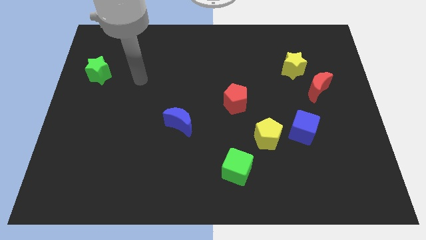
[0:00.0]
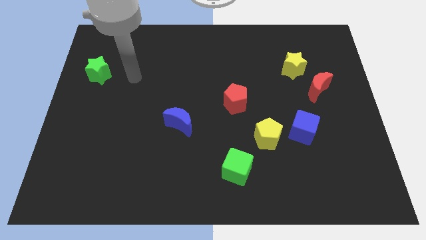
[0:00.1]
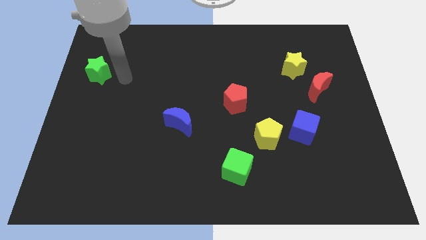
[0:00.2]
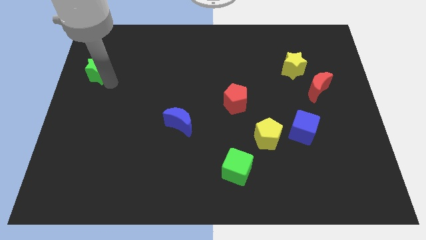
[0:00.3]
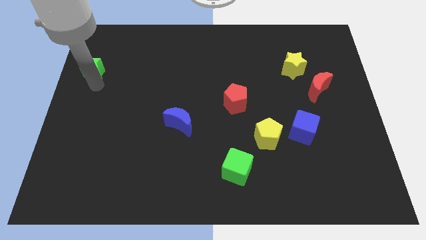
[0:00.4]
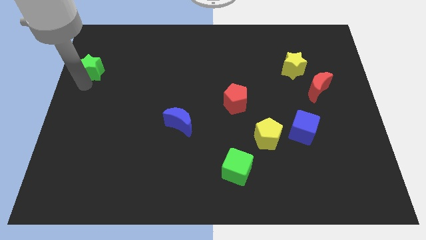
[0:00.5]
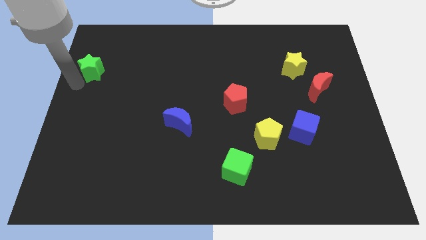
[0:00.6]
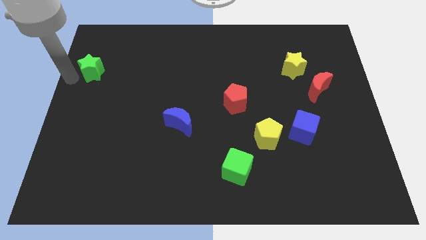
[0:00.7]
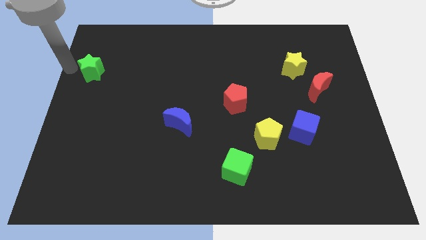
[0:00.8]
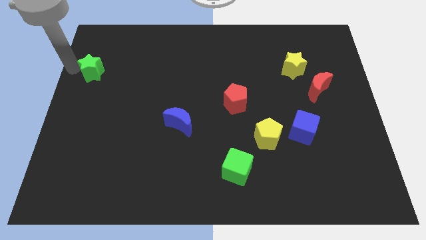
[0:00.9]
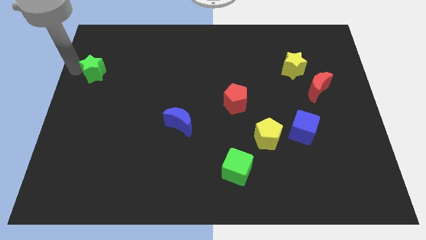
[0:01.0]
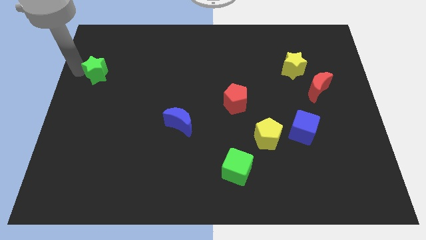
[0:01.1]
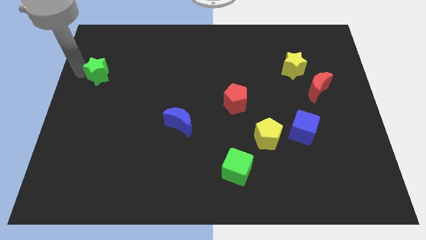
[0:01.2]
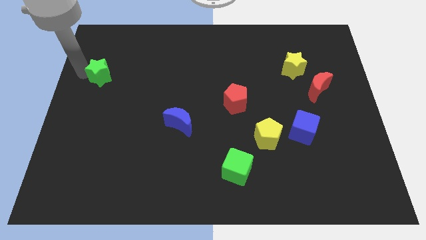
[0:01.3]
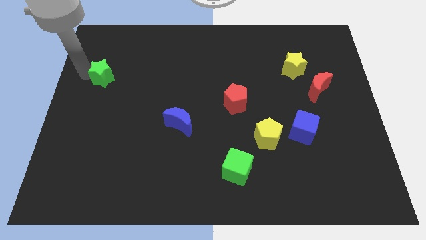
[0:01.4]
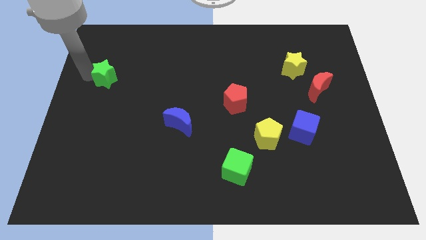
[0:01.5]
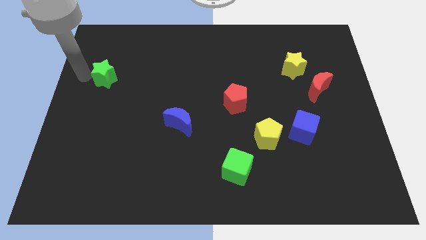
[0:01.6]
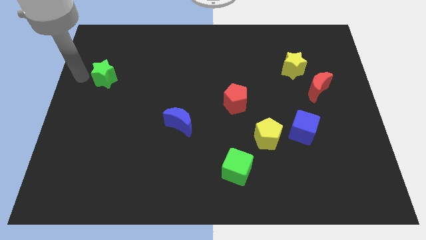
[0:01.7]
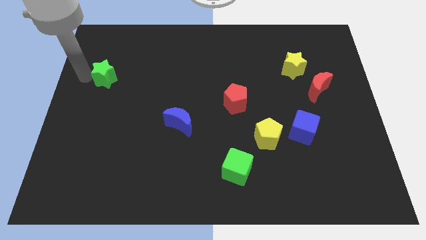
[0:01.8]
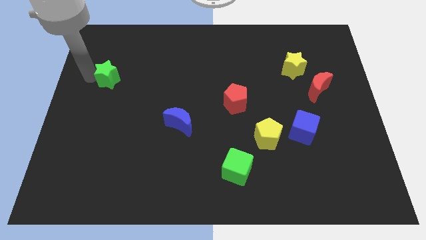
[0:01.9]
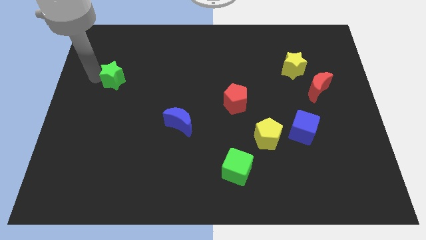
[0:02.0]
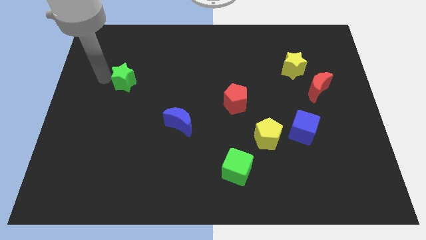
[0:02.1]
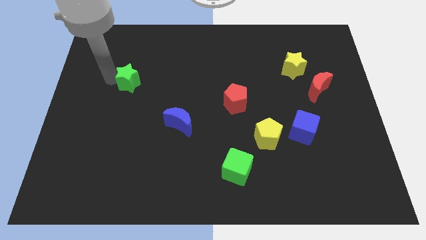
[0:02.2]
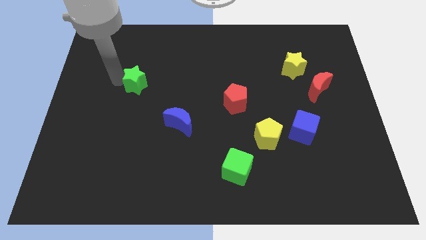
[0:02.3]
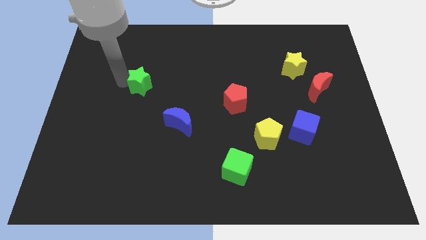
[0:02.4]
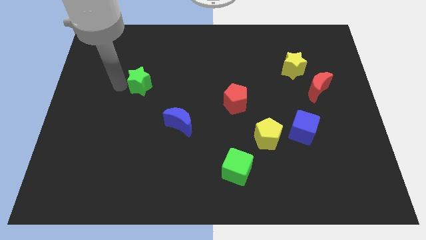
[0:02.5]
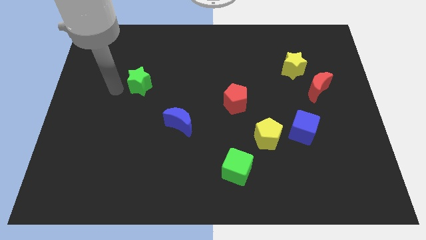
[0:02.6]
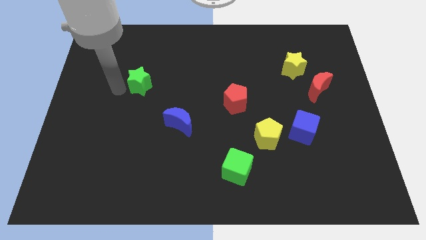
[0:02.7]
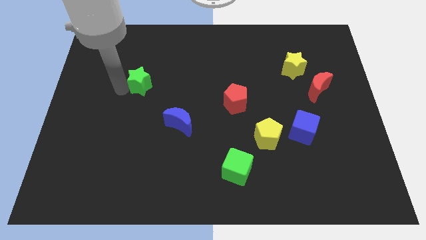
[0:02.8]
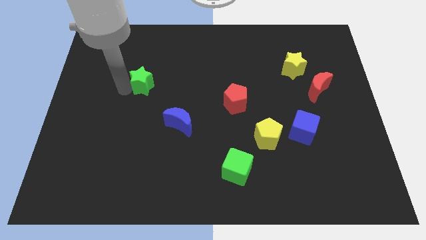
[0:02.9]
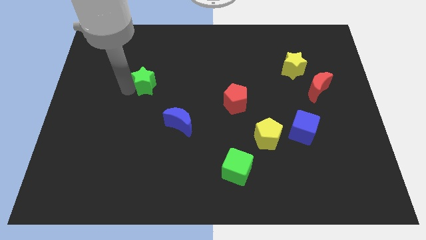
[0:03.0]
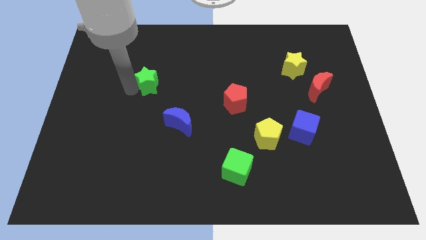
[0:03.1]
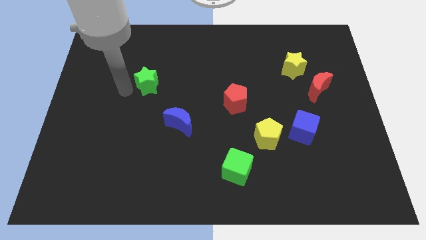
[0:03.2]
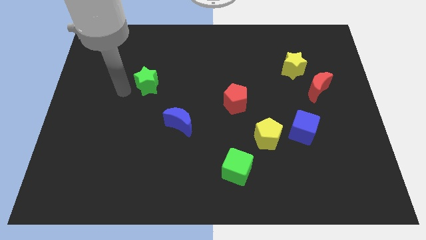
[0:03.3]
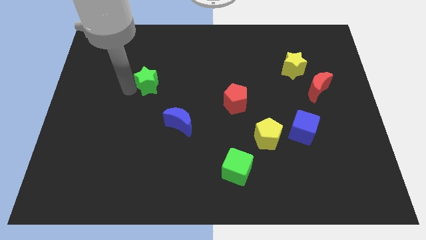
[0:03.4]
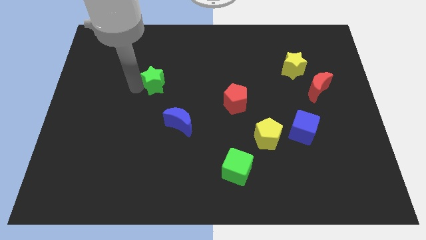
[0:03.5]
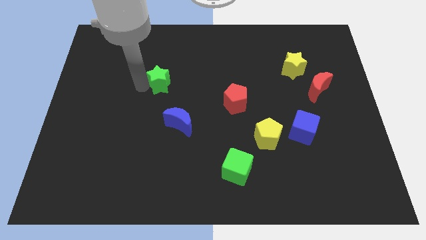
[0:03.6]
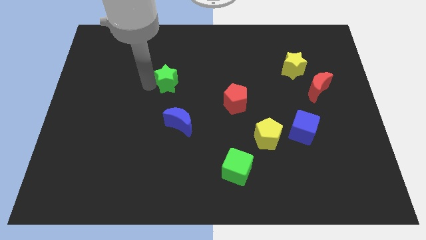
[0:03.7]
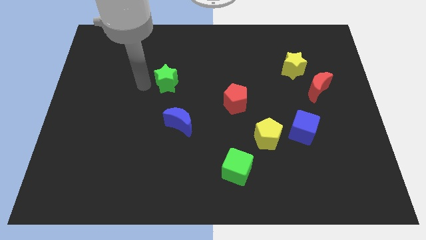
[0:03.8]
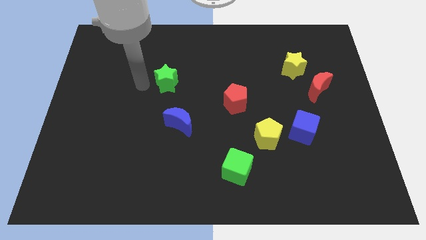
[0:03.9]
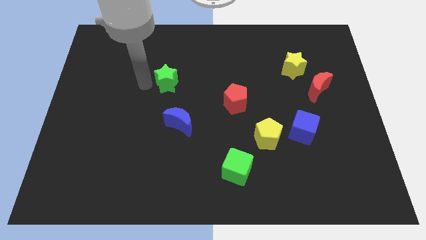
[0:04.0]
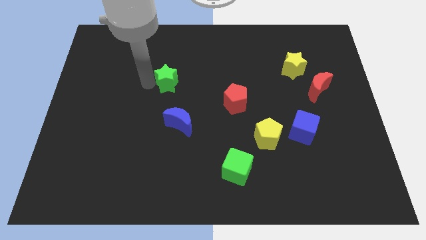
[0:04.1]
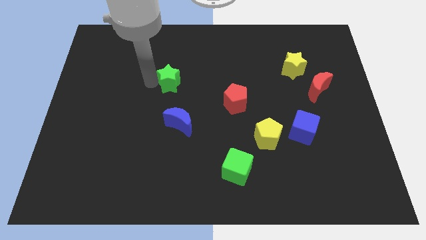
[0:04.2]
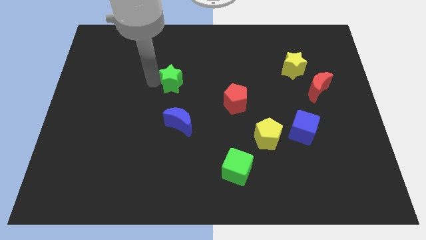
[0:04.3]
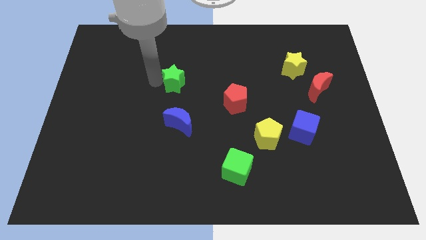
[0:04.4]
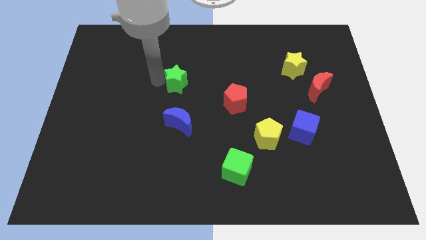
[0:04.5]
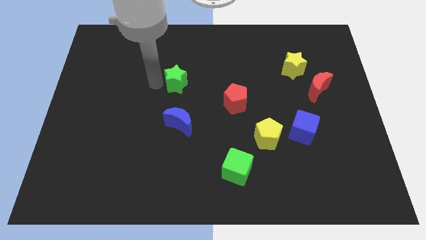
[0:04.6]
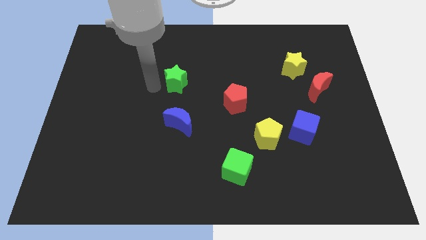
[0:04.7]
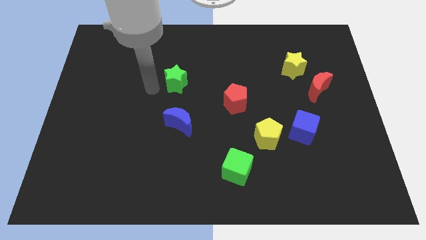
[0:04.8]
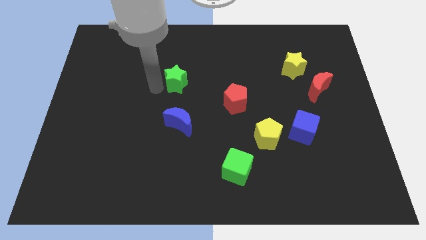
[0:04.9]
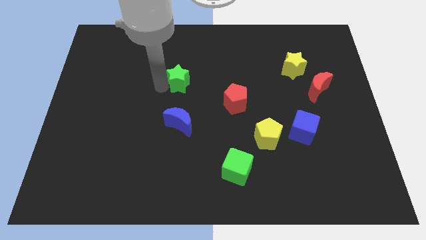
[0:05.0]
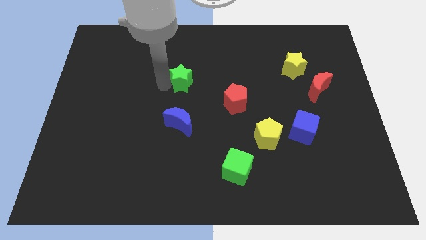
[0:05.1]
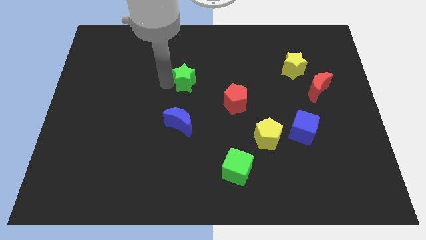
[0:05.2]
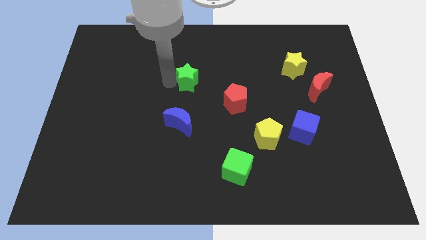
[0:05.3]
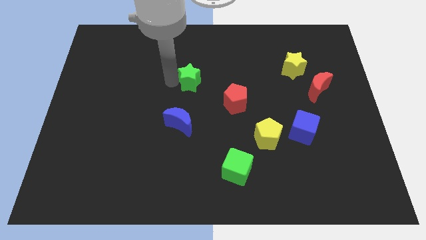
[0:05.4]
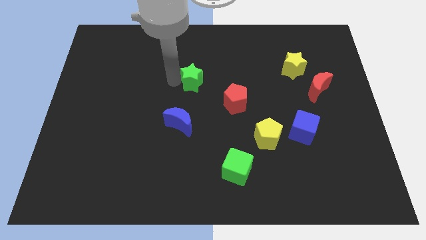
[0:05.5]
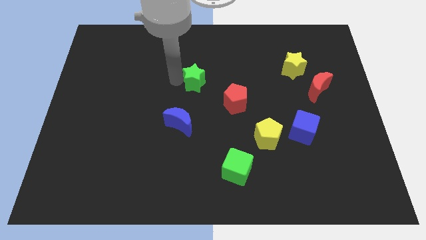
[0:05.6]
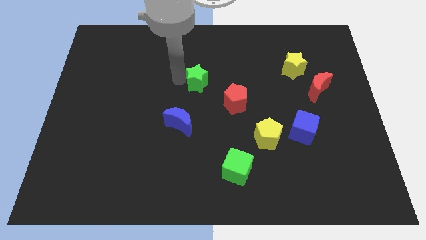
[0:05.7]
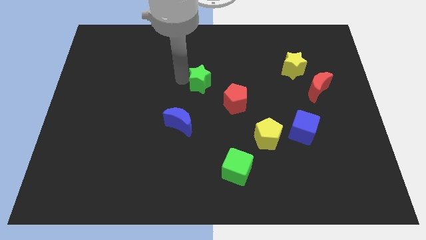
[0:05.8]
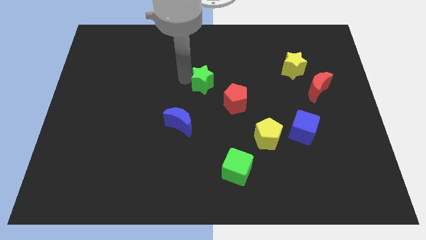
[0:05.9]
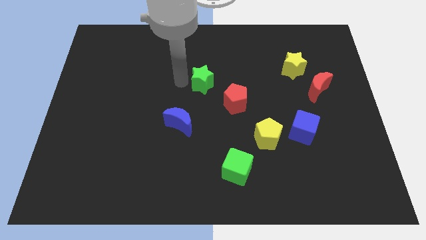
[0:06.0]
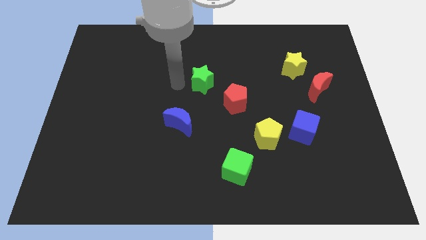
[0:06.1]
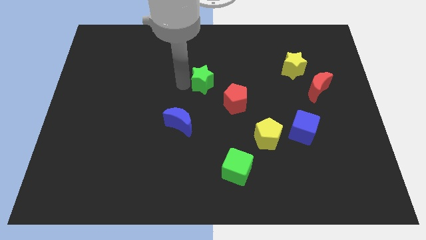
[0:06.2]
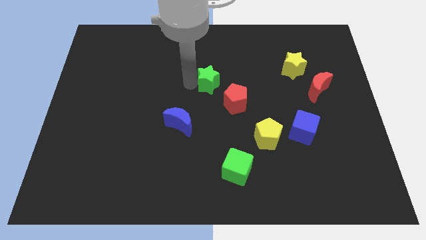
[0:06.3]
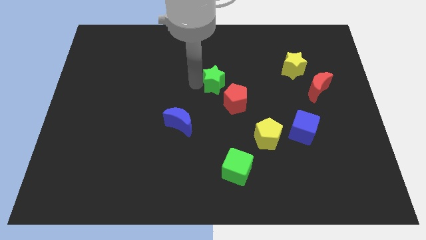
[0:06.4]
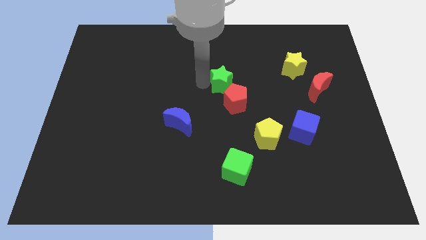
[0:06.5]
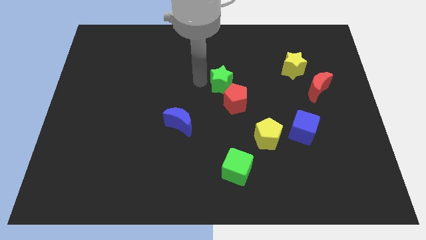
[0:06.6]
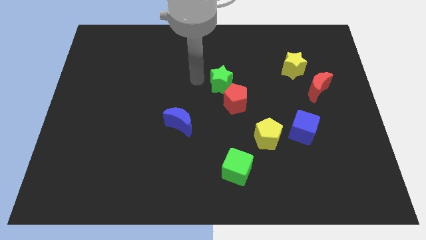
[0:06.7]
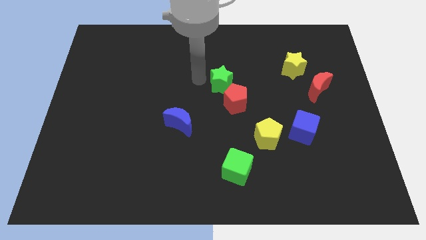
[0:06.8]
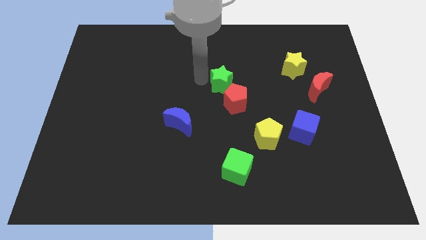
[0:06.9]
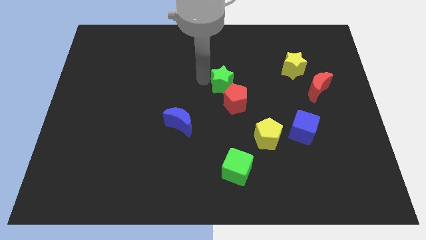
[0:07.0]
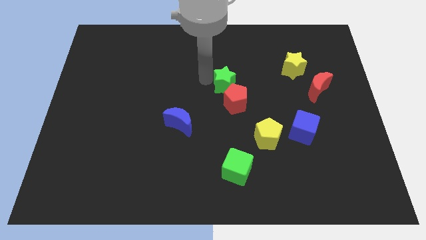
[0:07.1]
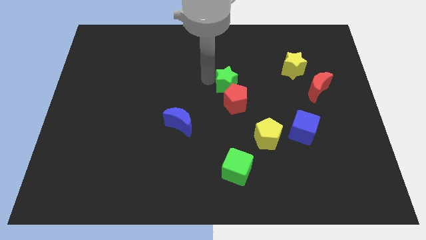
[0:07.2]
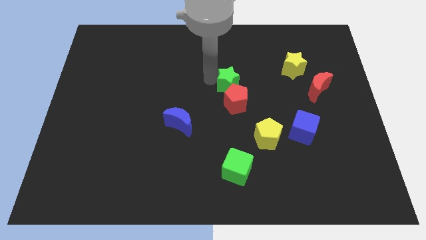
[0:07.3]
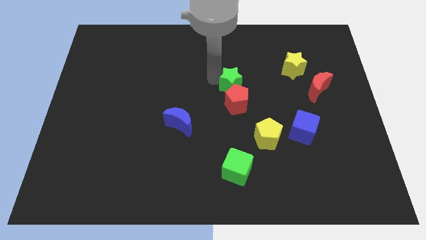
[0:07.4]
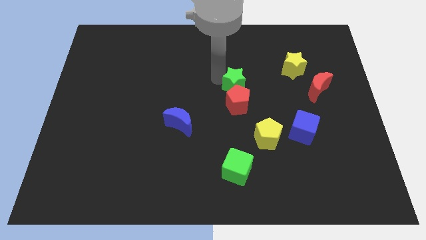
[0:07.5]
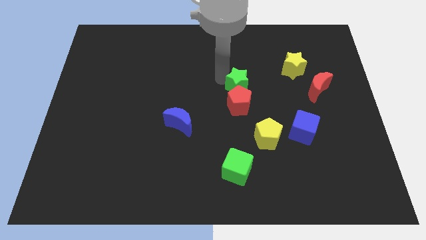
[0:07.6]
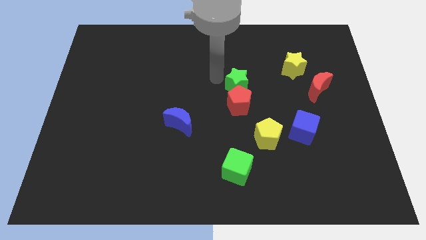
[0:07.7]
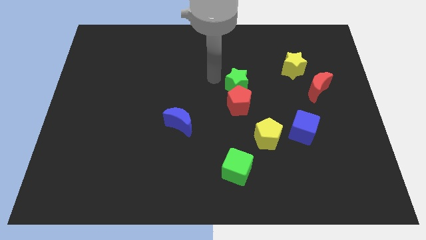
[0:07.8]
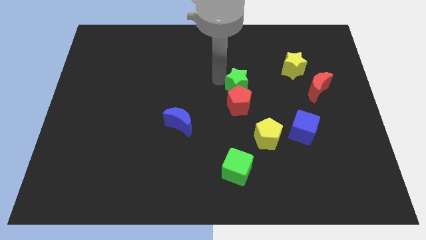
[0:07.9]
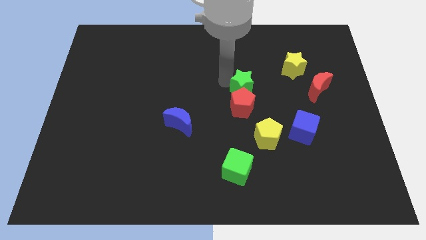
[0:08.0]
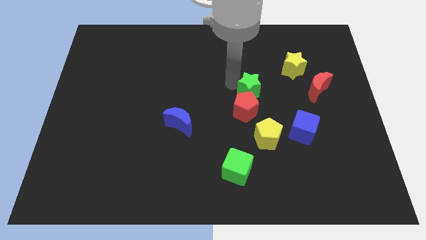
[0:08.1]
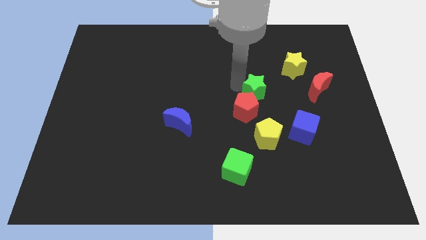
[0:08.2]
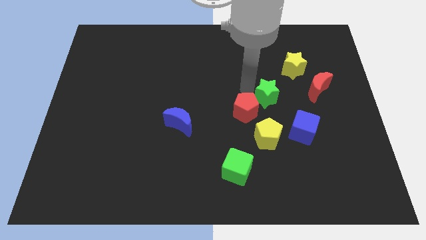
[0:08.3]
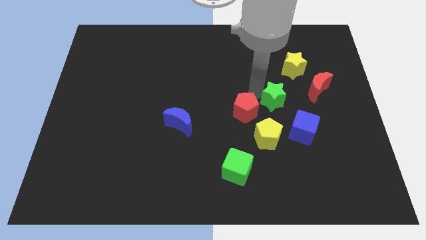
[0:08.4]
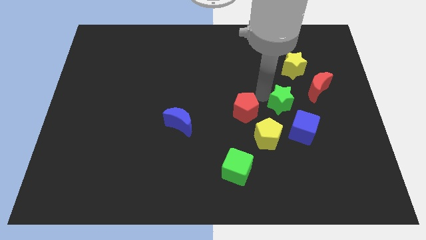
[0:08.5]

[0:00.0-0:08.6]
slide the green star to the bottom left of the red moon
